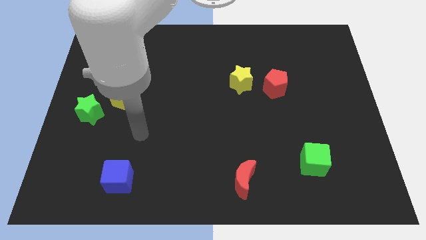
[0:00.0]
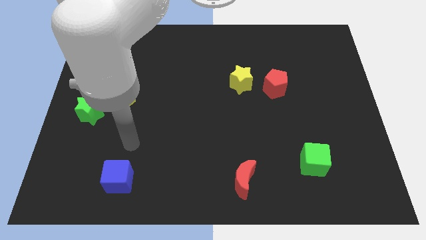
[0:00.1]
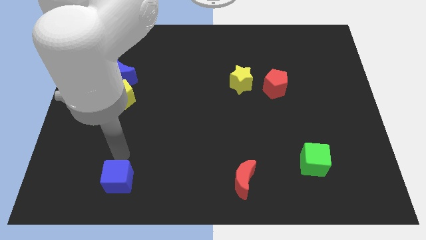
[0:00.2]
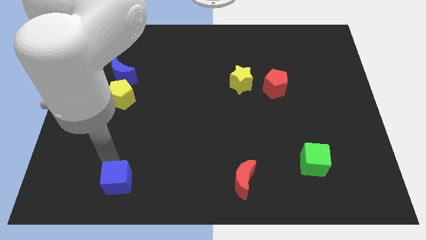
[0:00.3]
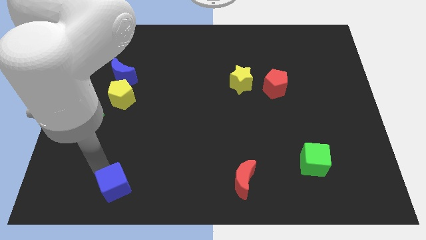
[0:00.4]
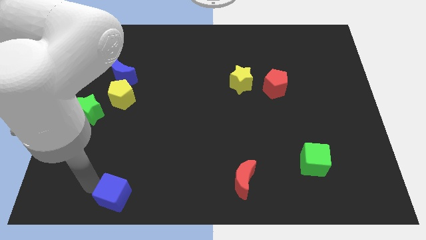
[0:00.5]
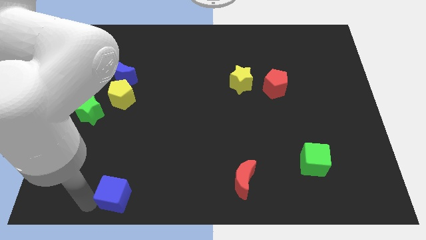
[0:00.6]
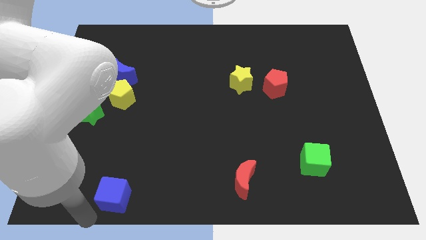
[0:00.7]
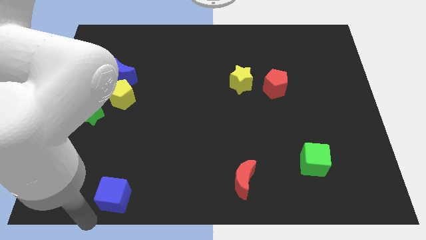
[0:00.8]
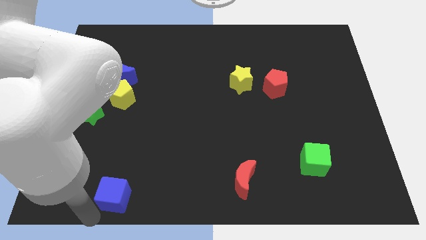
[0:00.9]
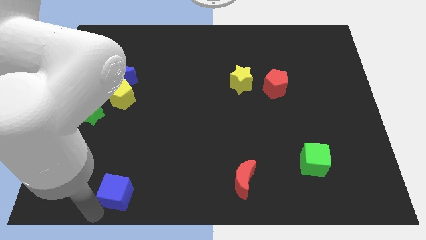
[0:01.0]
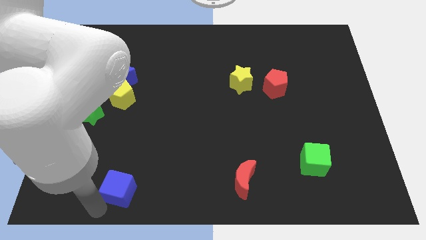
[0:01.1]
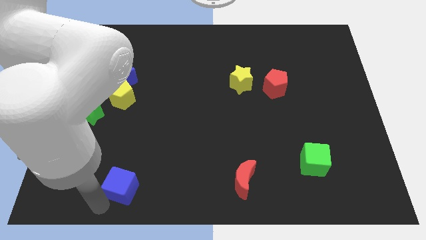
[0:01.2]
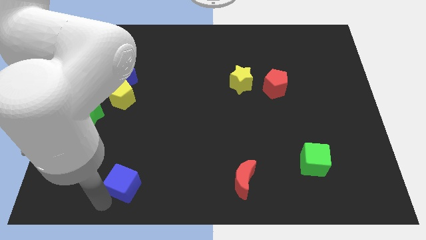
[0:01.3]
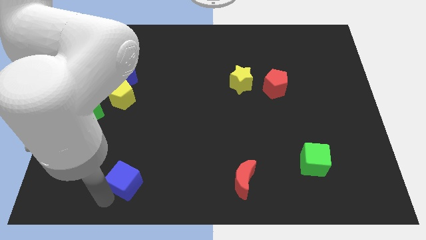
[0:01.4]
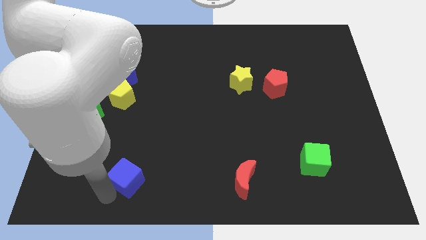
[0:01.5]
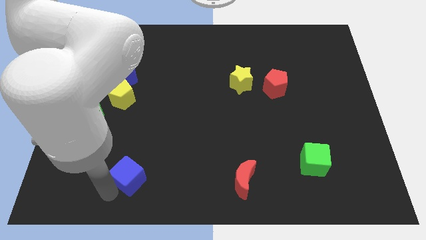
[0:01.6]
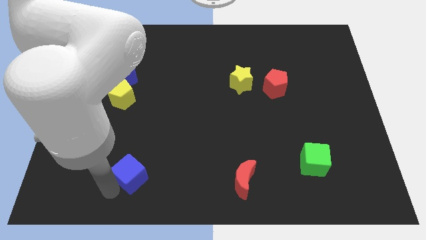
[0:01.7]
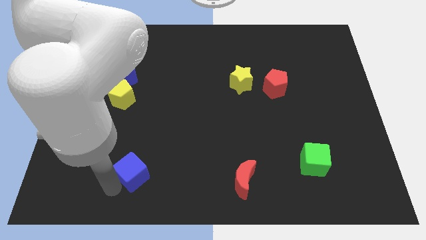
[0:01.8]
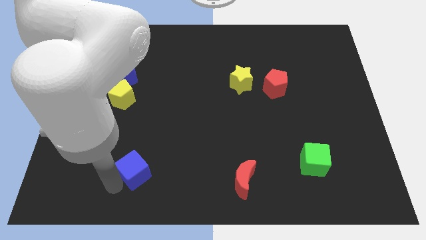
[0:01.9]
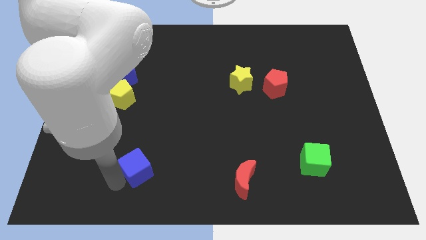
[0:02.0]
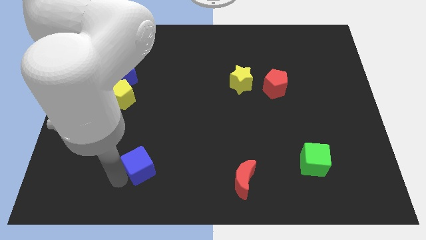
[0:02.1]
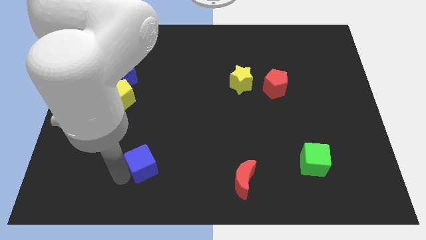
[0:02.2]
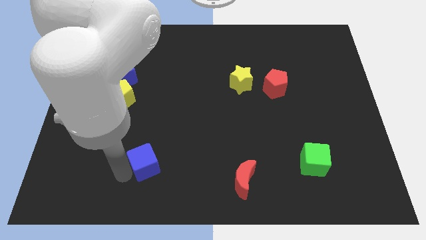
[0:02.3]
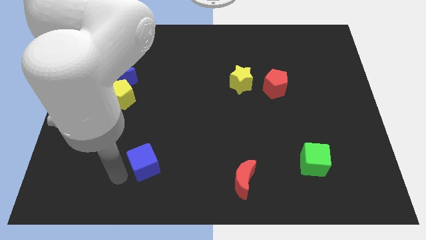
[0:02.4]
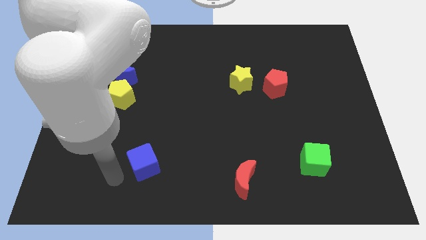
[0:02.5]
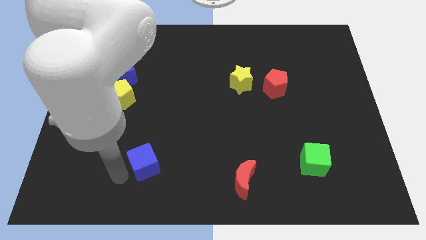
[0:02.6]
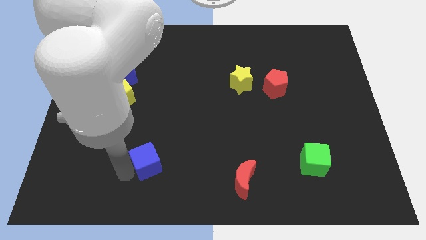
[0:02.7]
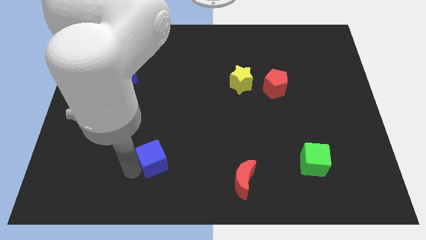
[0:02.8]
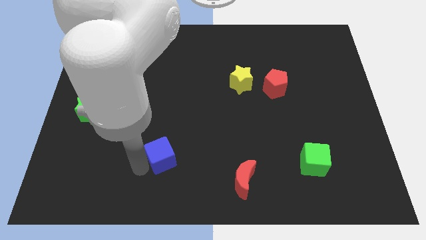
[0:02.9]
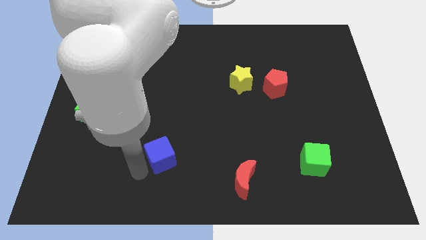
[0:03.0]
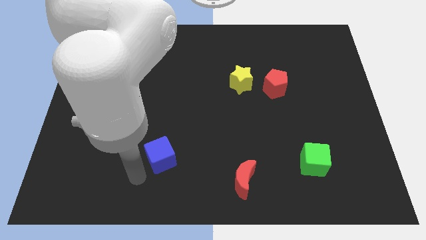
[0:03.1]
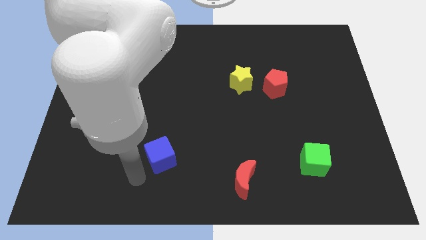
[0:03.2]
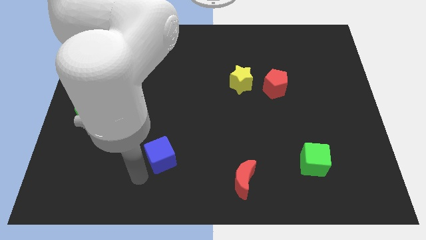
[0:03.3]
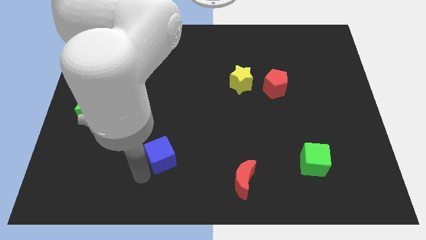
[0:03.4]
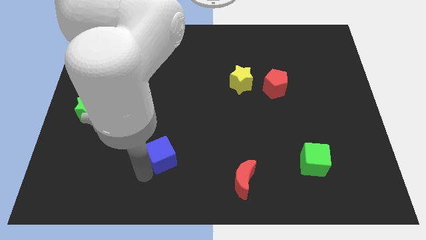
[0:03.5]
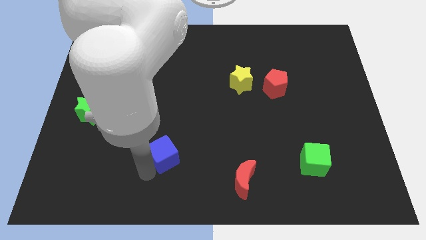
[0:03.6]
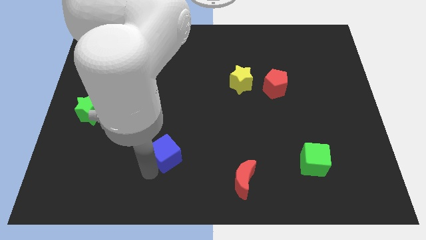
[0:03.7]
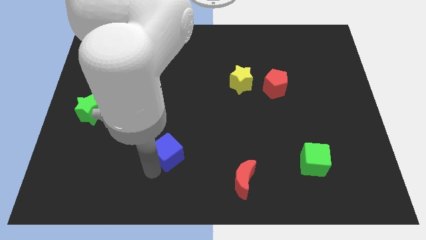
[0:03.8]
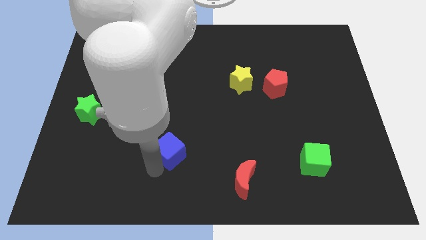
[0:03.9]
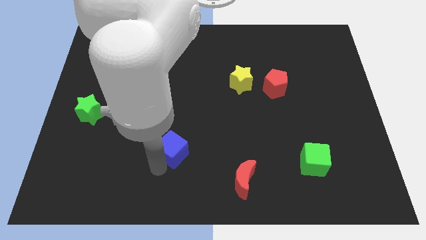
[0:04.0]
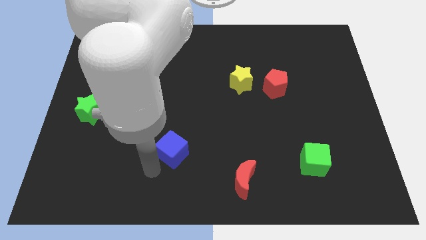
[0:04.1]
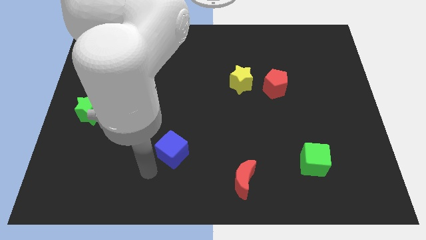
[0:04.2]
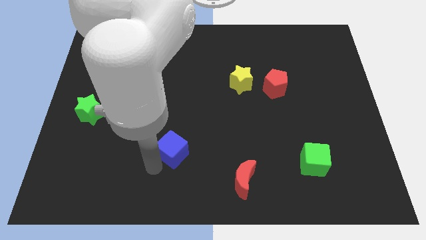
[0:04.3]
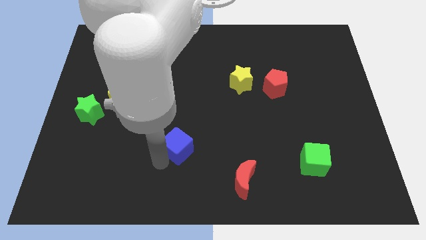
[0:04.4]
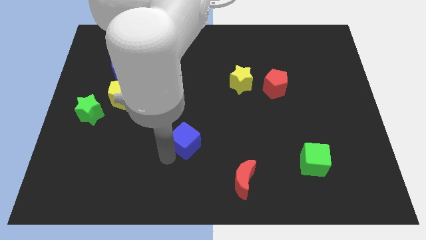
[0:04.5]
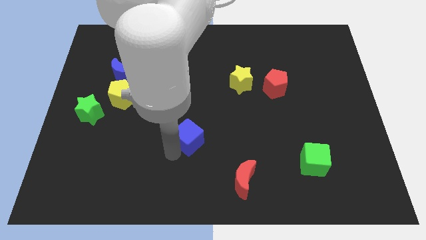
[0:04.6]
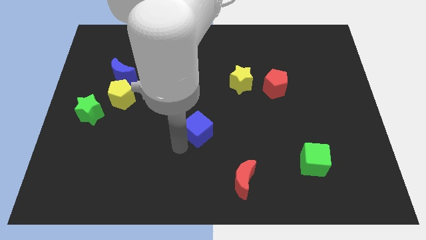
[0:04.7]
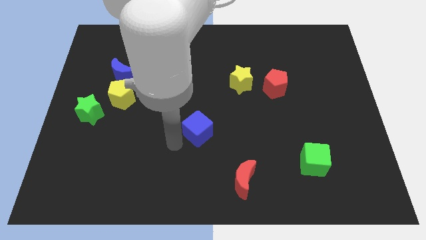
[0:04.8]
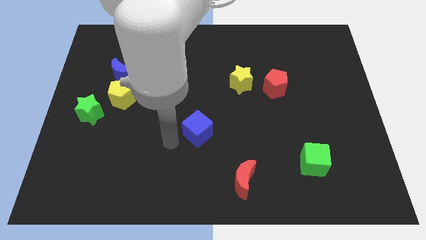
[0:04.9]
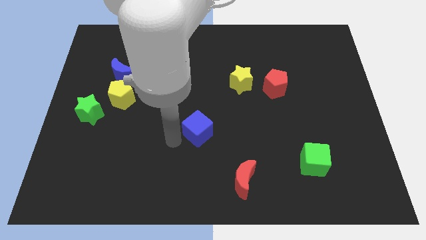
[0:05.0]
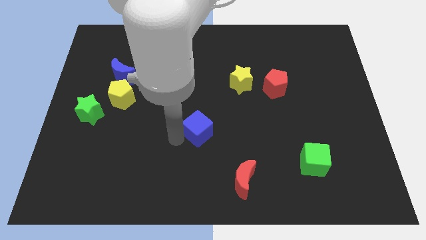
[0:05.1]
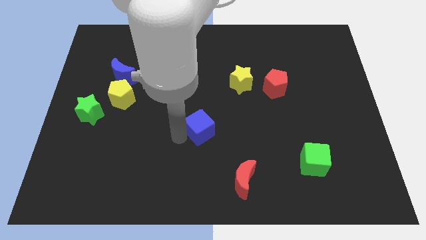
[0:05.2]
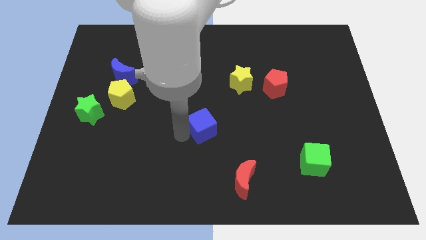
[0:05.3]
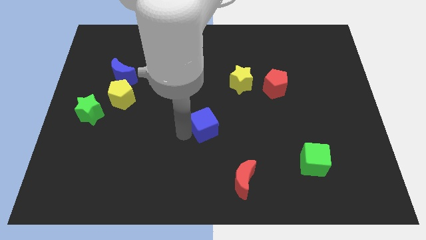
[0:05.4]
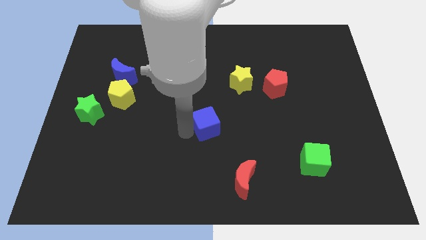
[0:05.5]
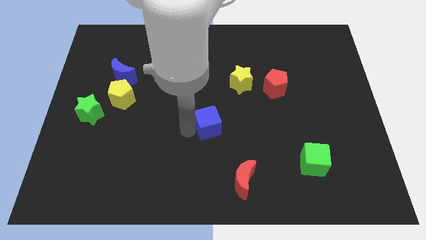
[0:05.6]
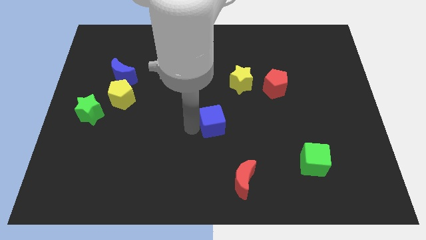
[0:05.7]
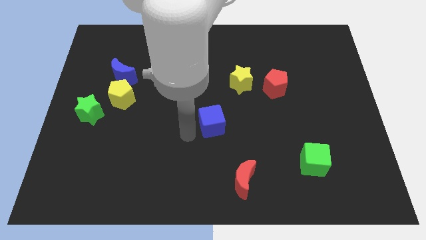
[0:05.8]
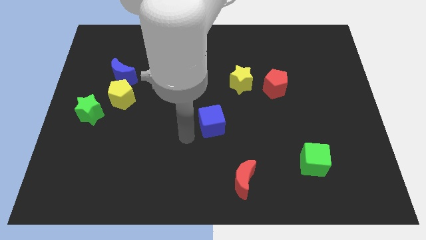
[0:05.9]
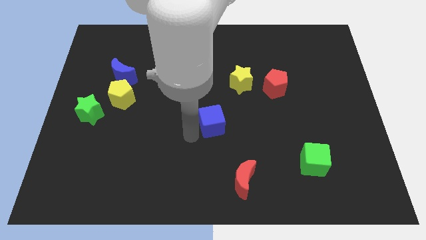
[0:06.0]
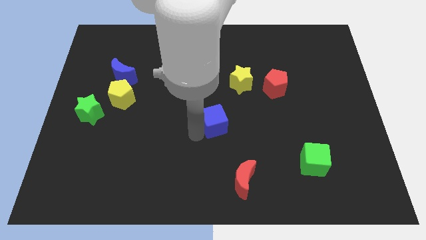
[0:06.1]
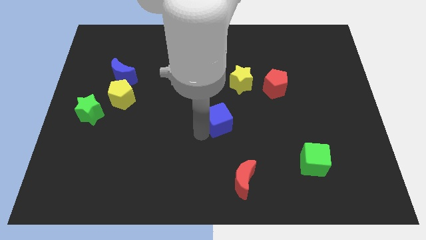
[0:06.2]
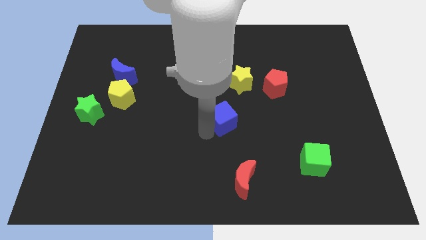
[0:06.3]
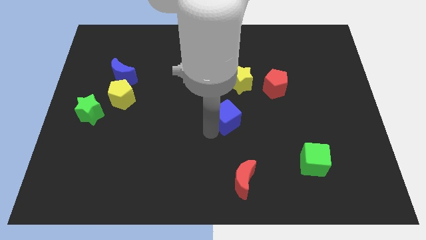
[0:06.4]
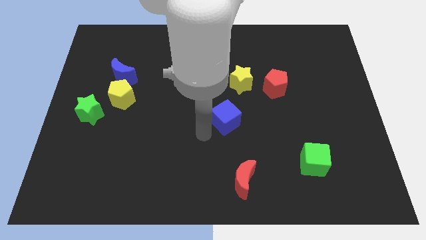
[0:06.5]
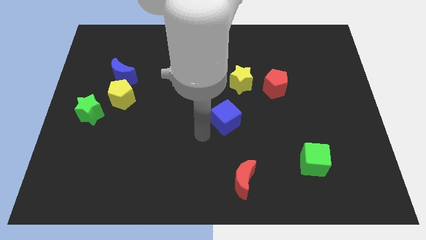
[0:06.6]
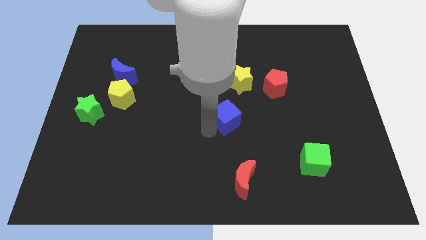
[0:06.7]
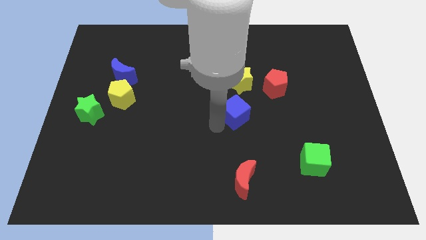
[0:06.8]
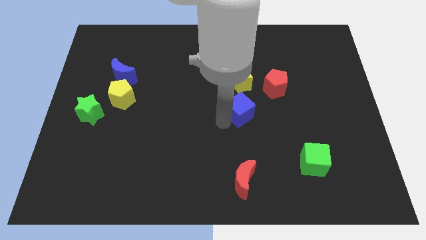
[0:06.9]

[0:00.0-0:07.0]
move the blue cube diagonally down and to the left of the red pentagon
